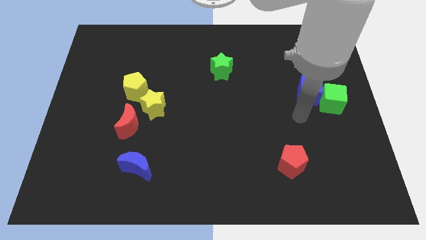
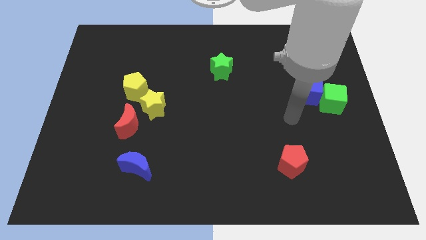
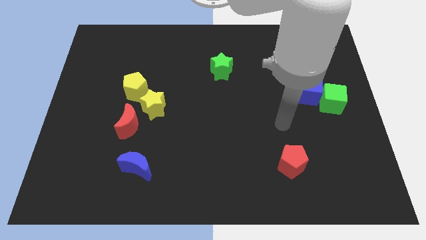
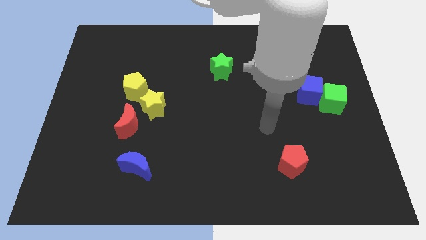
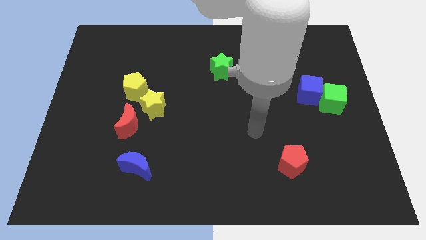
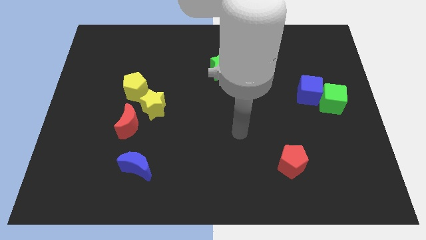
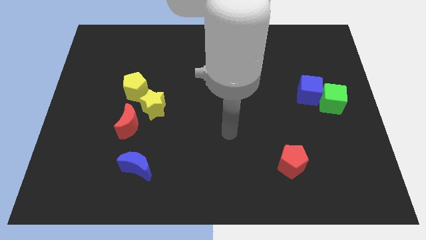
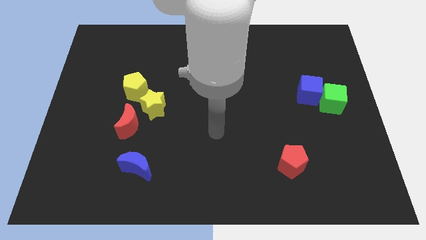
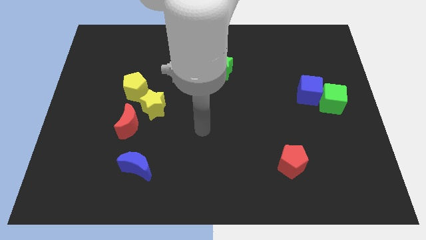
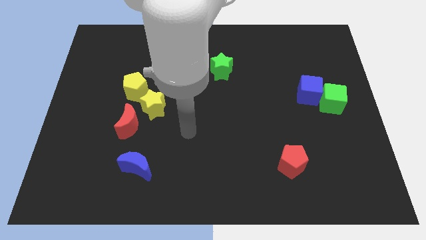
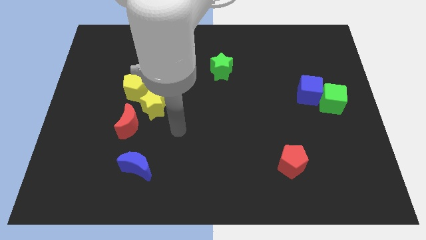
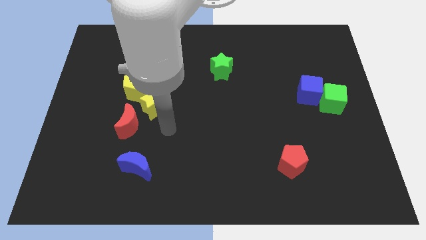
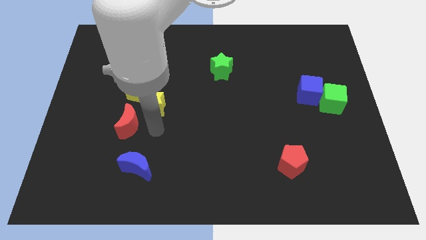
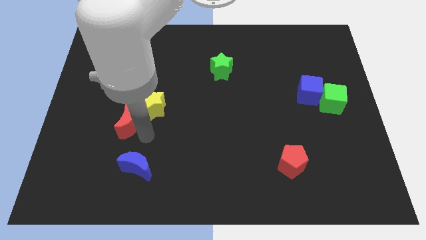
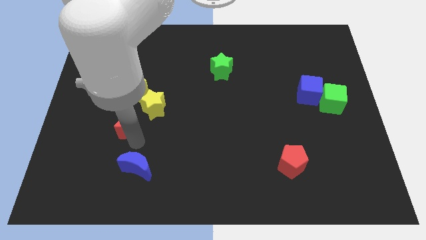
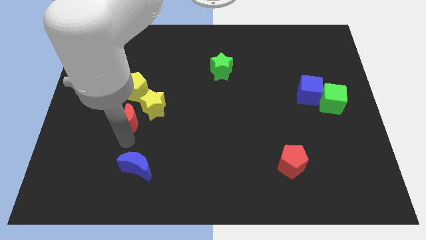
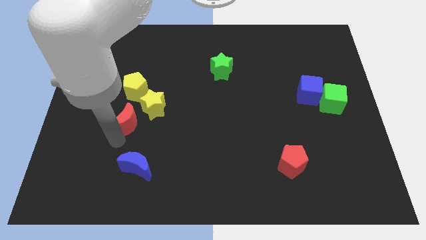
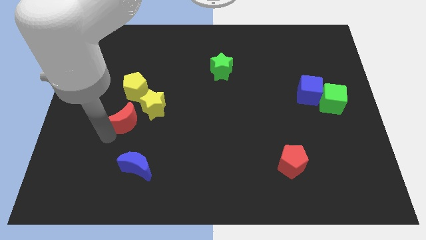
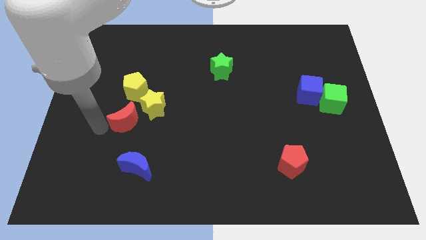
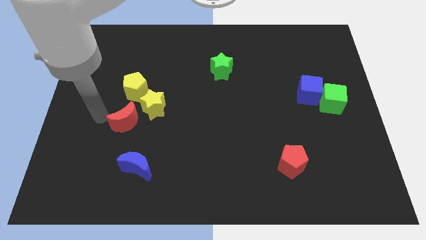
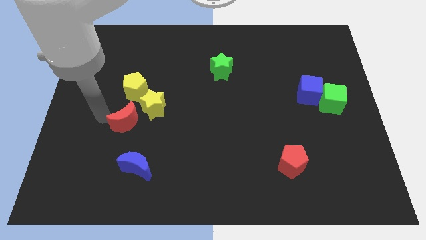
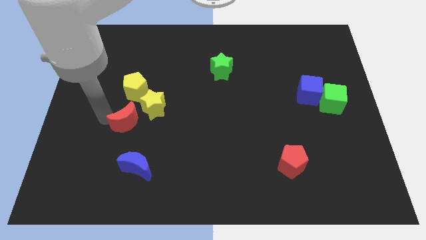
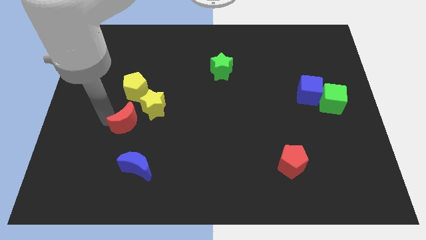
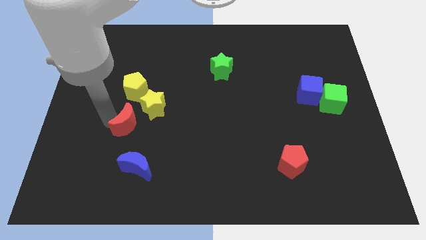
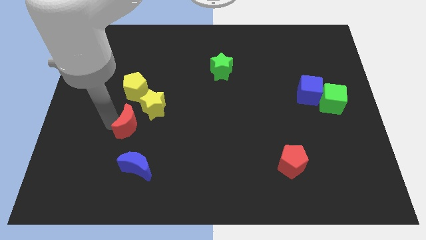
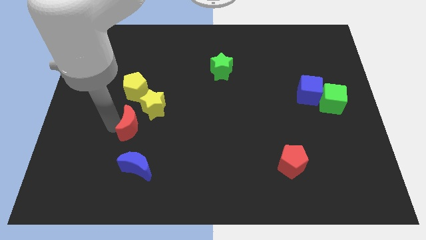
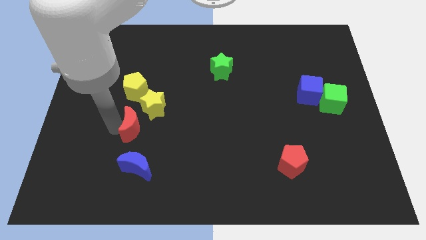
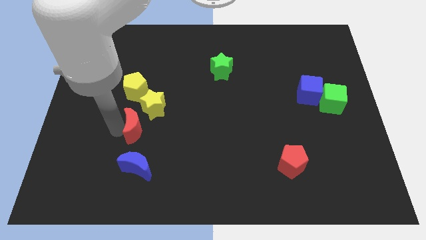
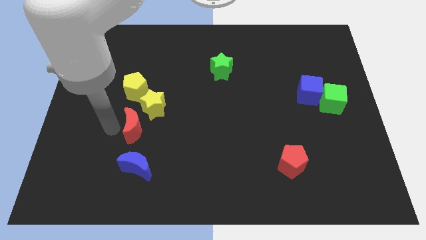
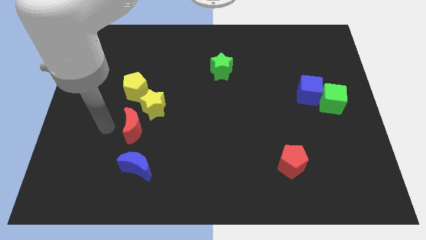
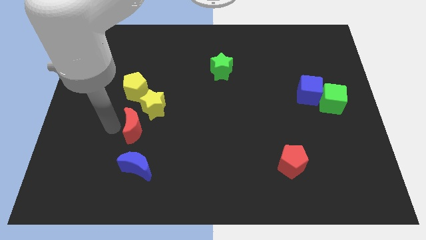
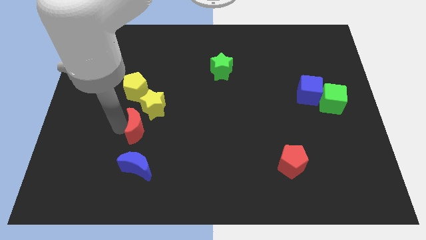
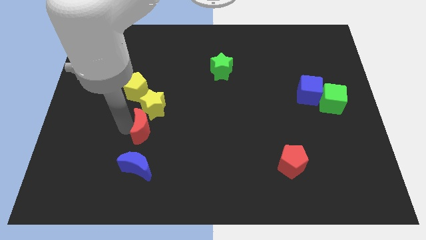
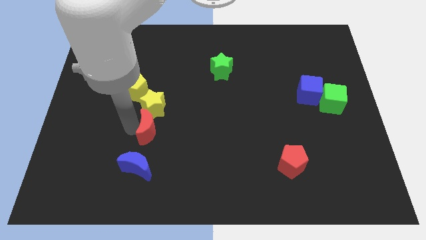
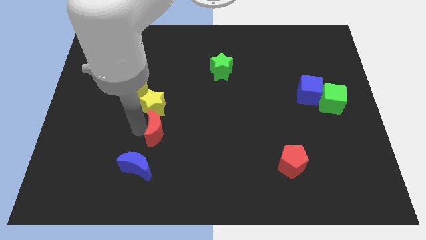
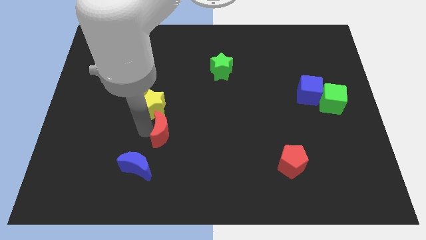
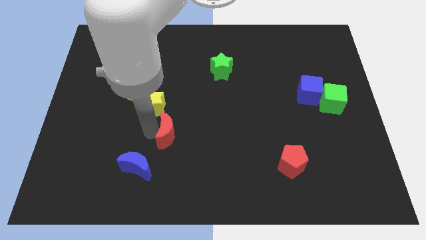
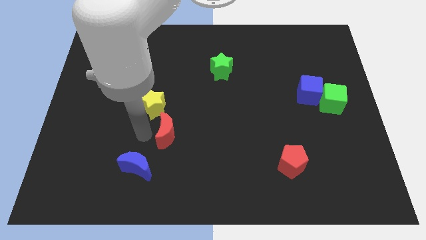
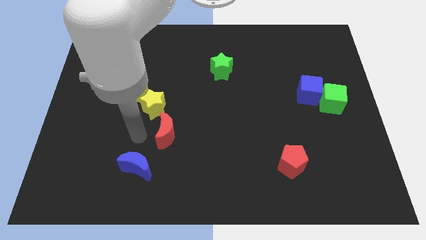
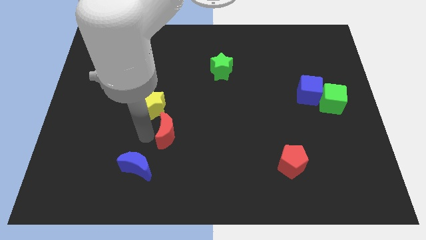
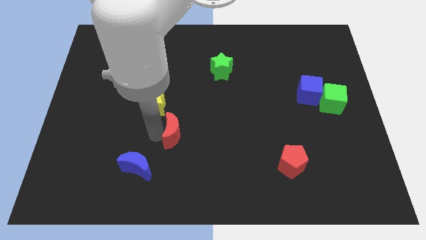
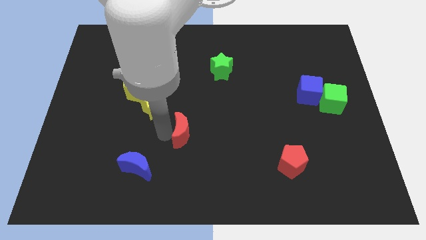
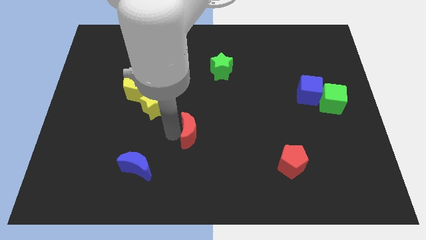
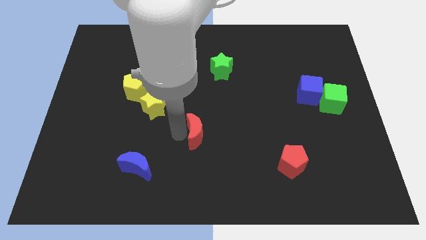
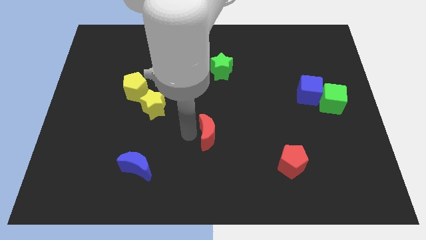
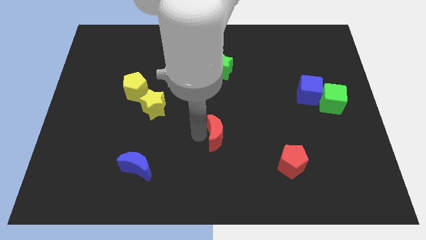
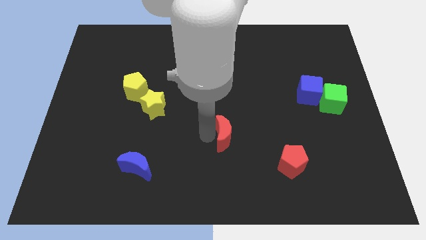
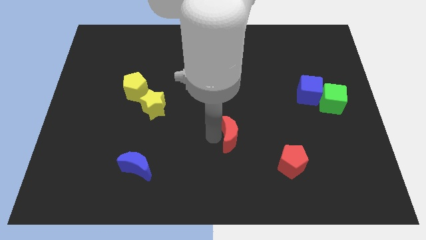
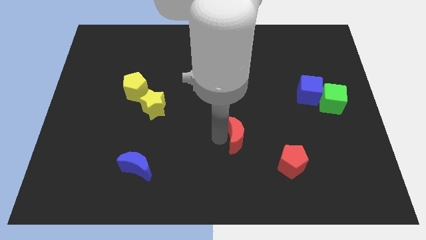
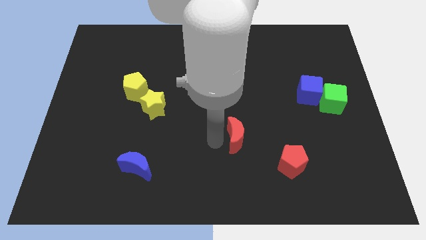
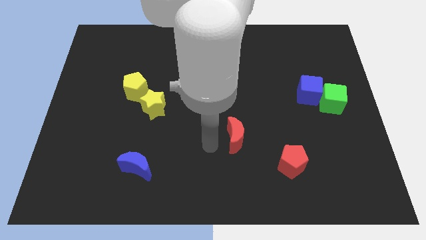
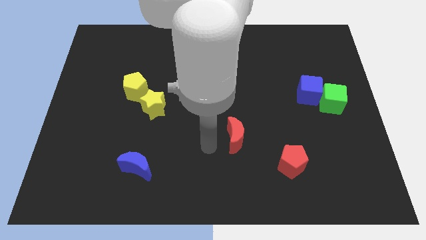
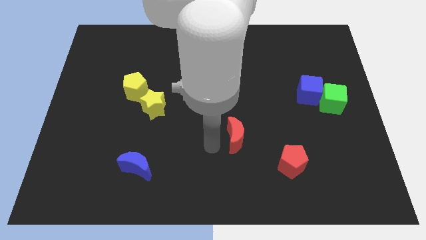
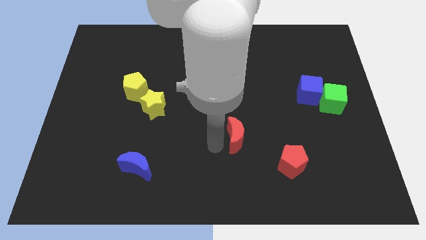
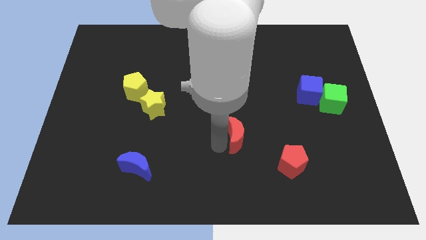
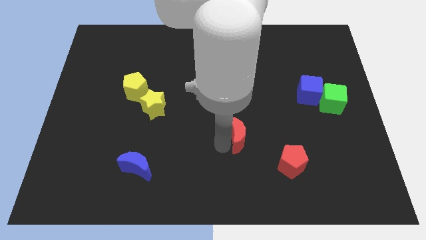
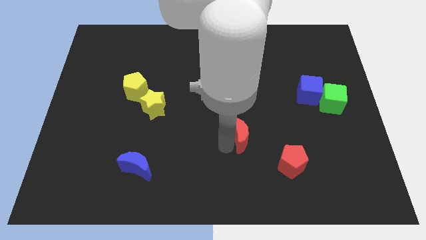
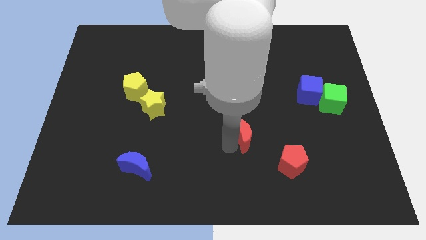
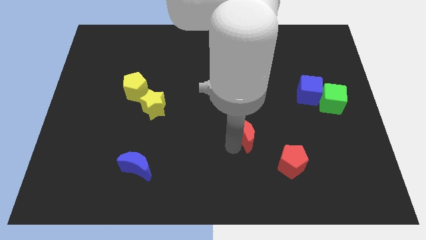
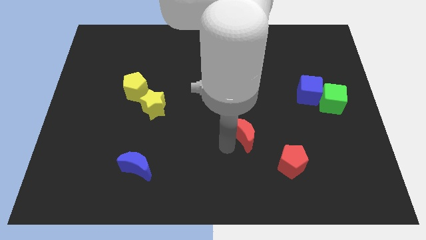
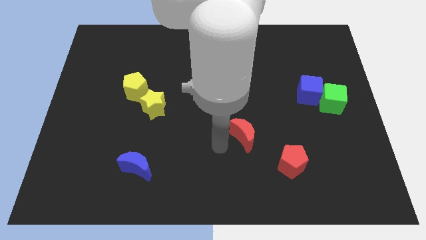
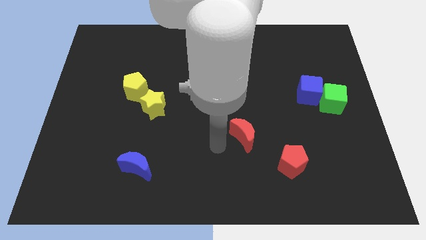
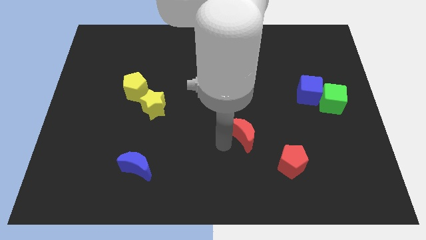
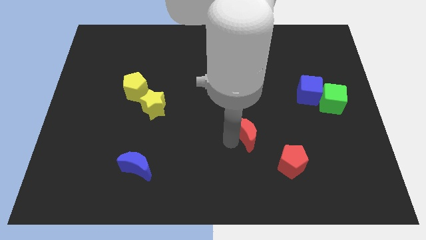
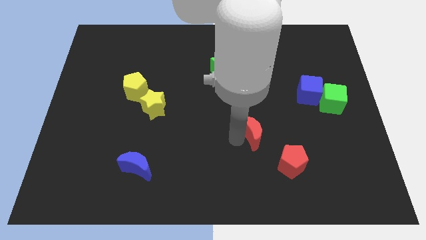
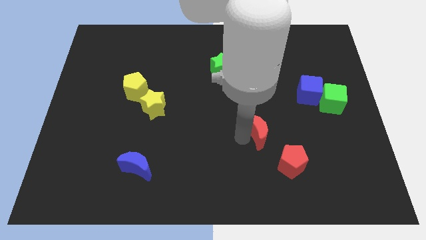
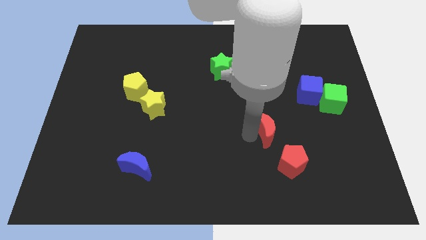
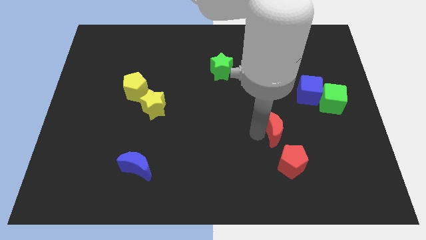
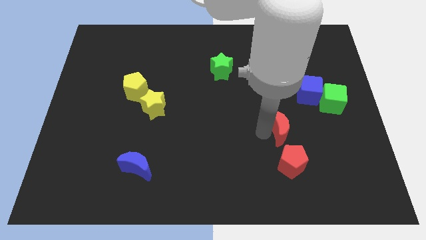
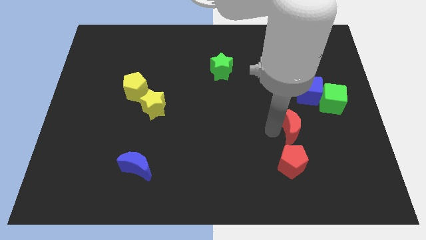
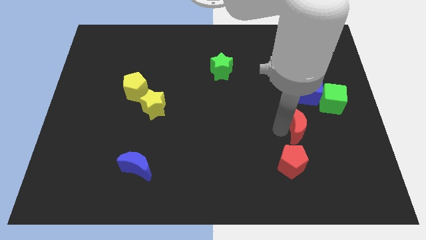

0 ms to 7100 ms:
push the red moon to the bottom side of the blue cube
